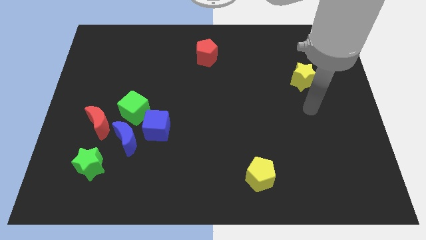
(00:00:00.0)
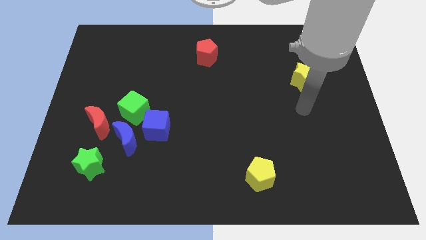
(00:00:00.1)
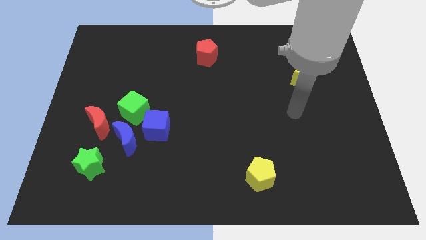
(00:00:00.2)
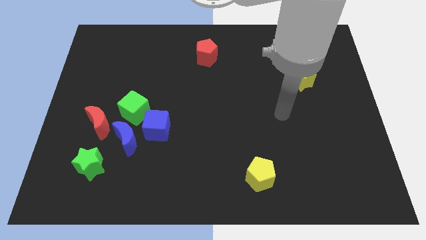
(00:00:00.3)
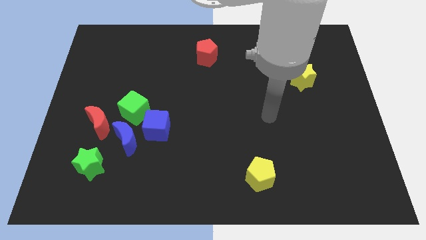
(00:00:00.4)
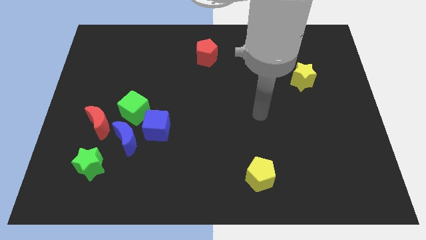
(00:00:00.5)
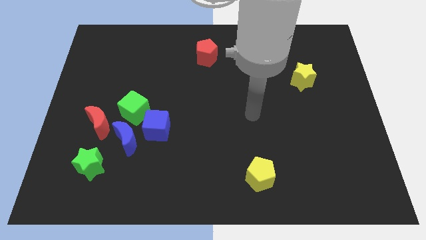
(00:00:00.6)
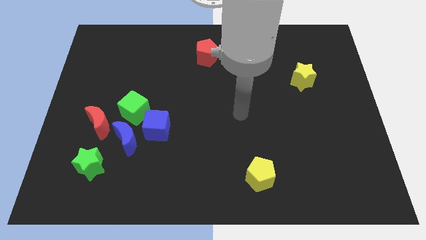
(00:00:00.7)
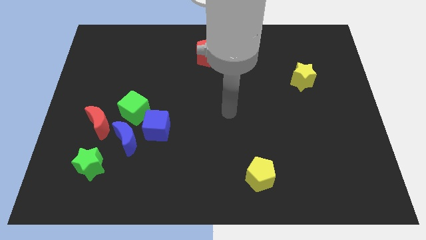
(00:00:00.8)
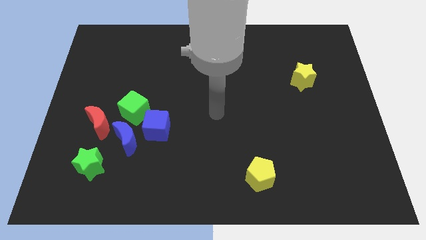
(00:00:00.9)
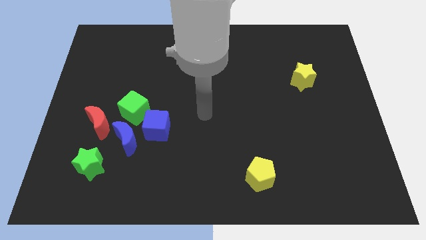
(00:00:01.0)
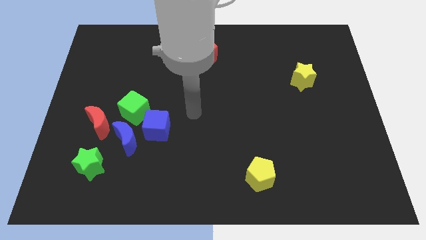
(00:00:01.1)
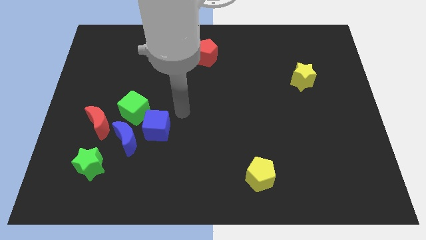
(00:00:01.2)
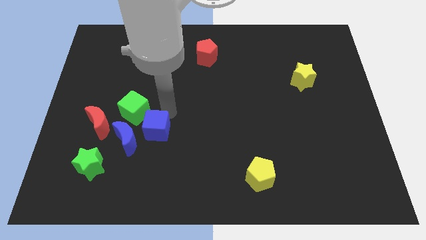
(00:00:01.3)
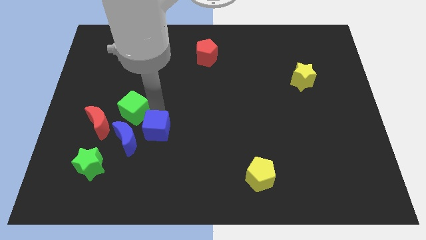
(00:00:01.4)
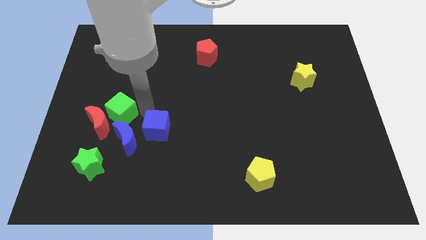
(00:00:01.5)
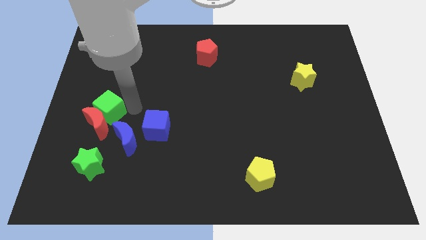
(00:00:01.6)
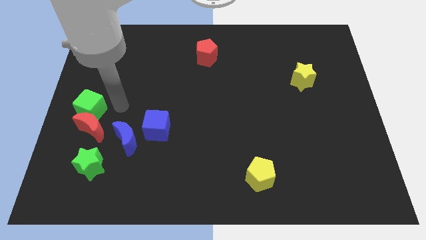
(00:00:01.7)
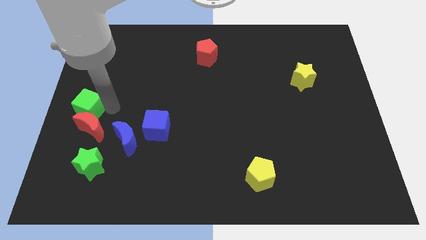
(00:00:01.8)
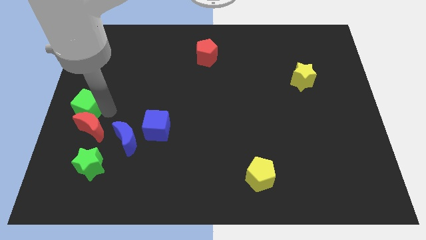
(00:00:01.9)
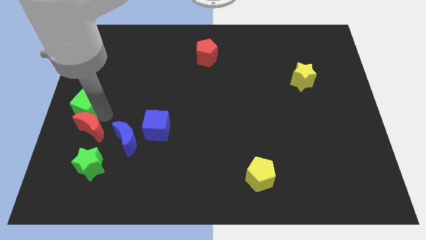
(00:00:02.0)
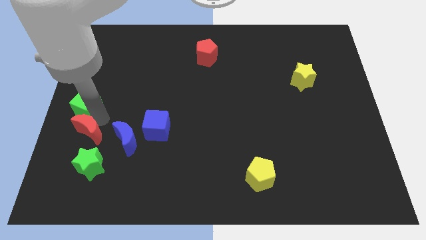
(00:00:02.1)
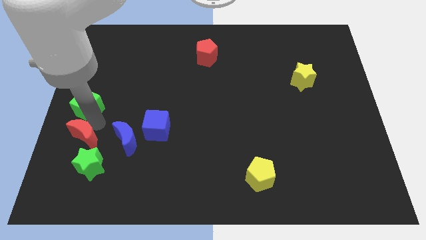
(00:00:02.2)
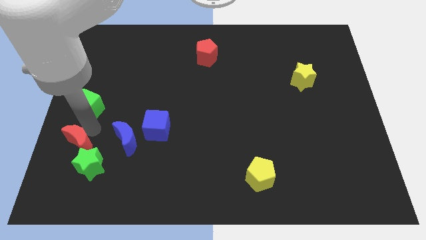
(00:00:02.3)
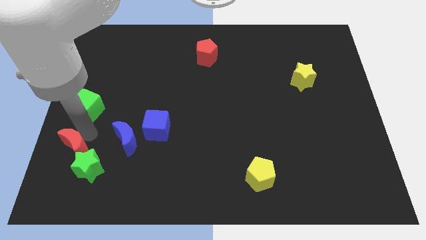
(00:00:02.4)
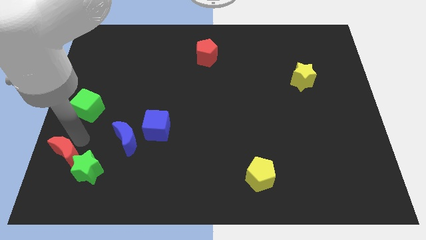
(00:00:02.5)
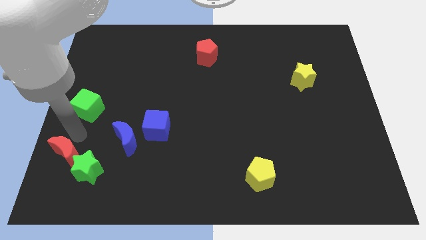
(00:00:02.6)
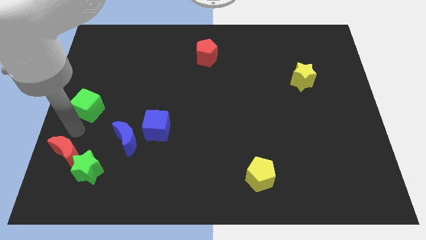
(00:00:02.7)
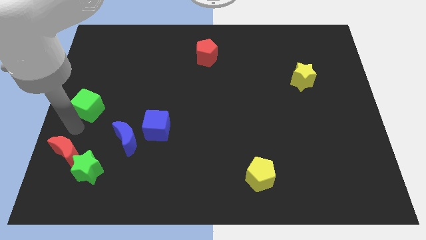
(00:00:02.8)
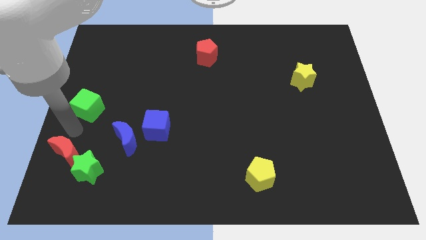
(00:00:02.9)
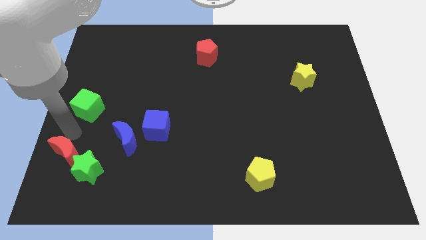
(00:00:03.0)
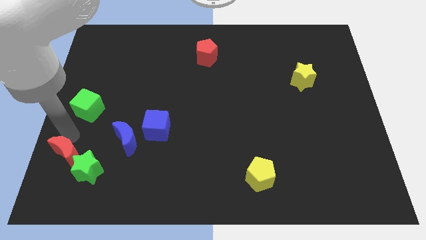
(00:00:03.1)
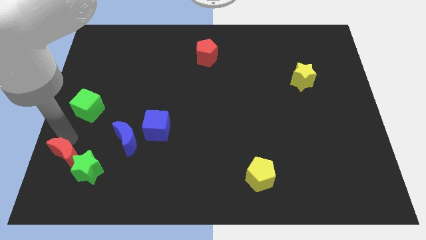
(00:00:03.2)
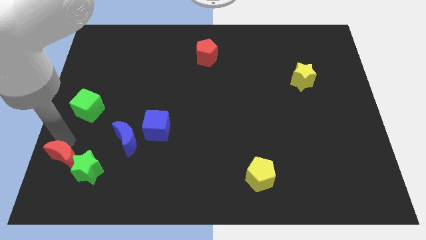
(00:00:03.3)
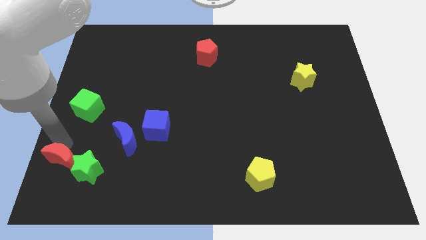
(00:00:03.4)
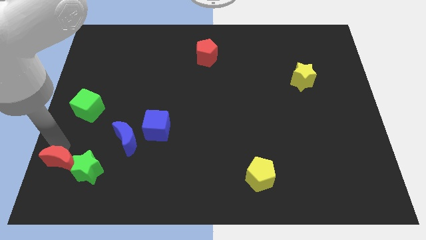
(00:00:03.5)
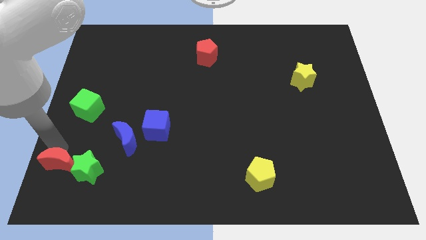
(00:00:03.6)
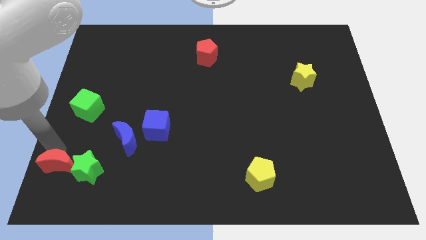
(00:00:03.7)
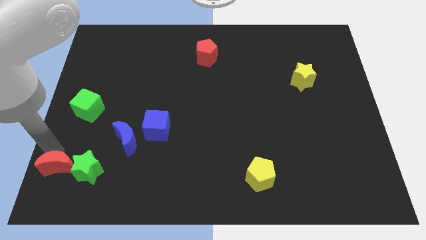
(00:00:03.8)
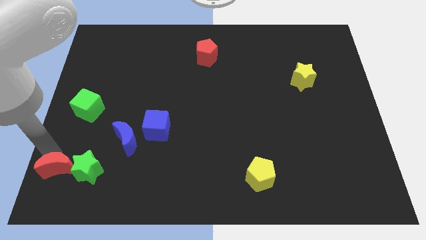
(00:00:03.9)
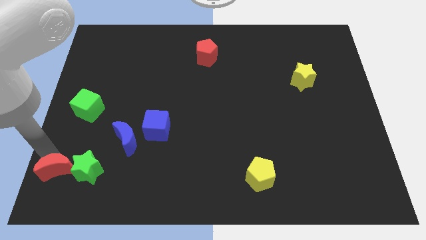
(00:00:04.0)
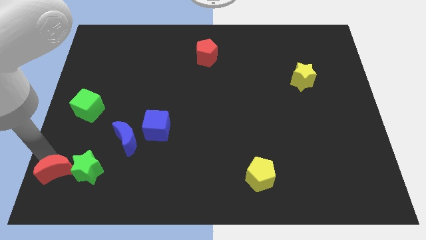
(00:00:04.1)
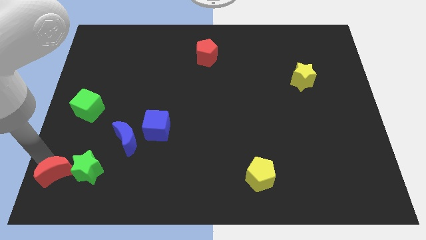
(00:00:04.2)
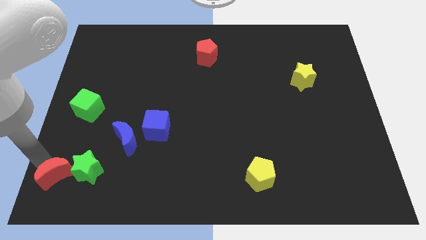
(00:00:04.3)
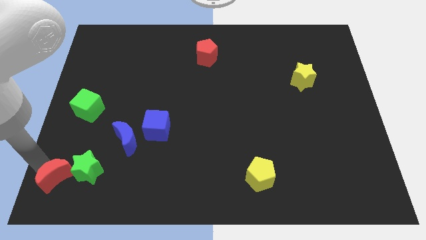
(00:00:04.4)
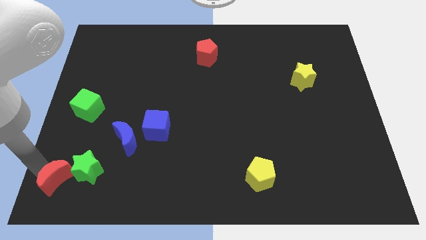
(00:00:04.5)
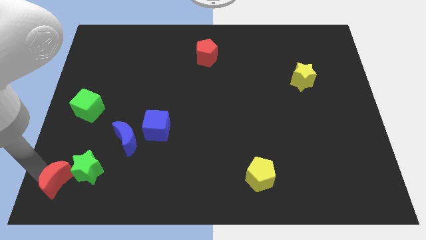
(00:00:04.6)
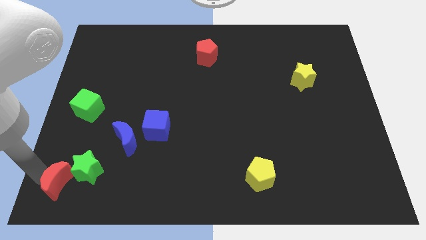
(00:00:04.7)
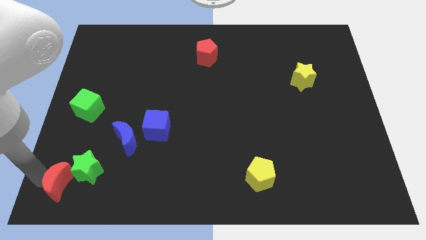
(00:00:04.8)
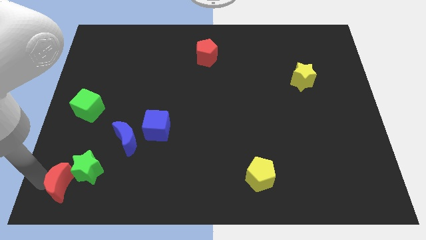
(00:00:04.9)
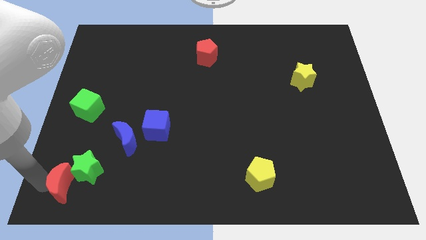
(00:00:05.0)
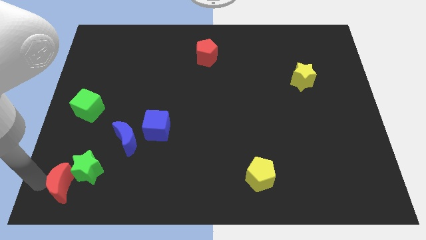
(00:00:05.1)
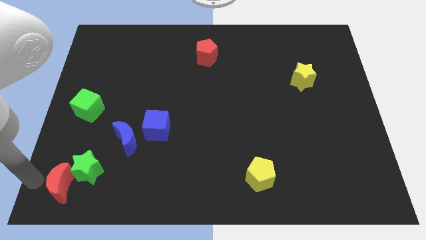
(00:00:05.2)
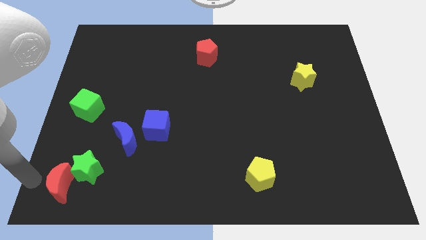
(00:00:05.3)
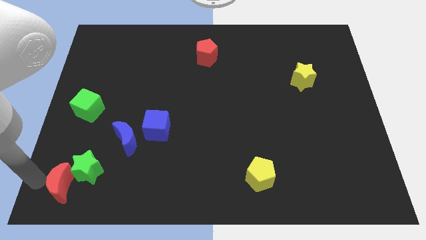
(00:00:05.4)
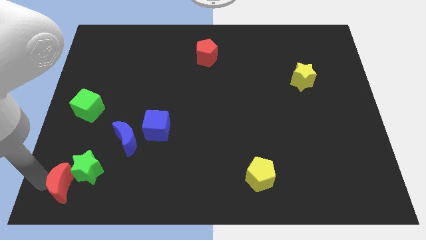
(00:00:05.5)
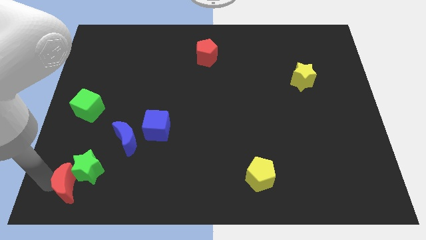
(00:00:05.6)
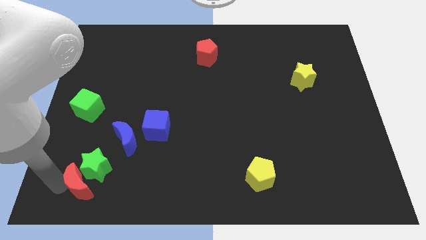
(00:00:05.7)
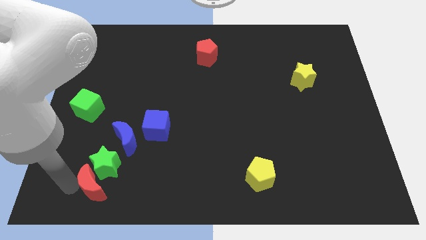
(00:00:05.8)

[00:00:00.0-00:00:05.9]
slide the red moon somewhat diagonally down and right

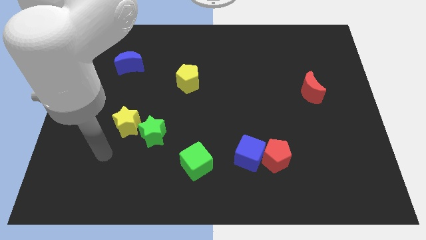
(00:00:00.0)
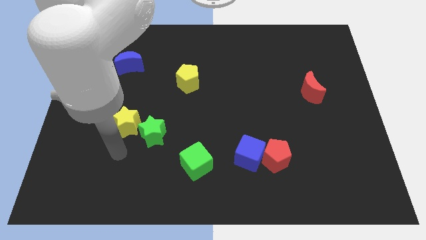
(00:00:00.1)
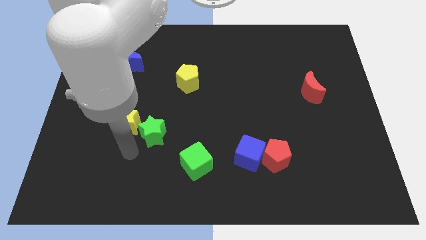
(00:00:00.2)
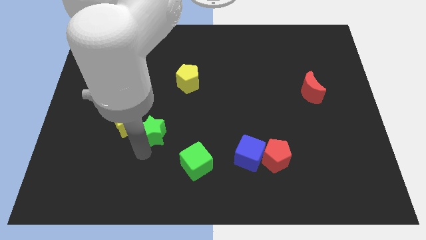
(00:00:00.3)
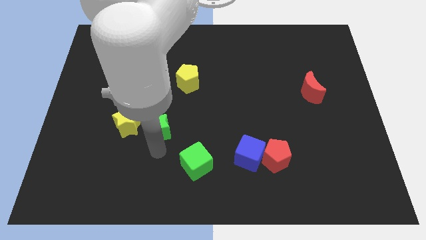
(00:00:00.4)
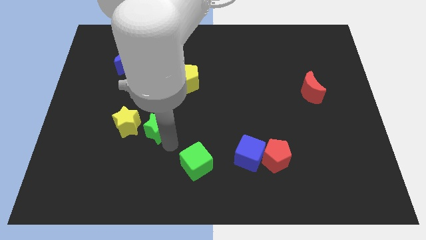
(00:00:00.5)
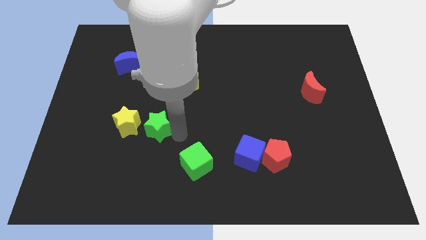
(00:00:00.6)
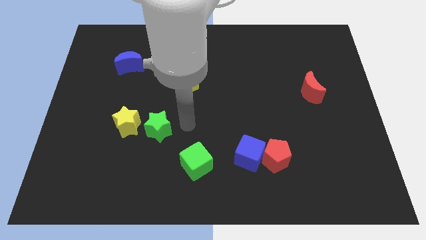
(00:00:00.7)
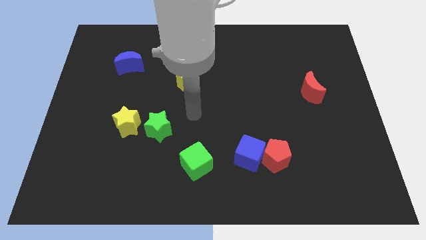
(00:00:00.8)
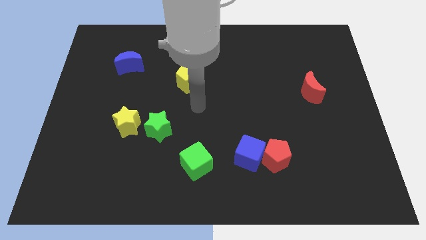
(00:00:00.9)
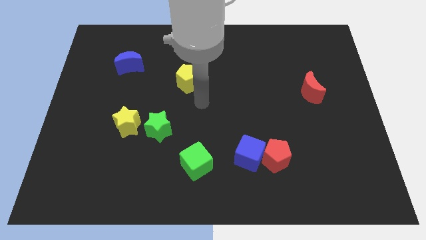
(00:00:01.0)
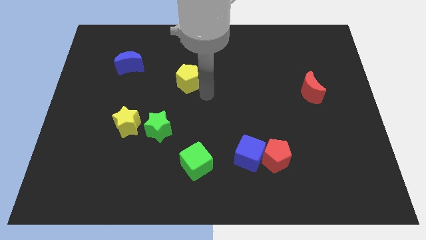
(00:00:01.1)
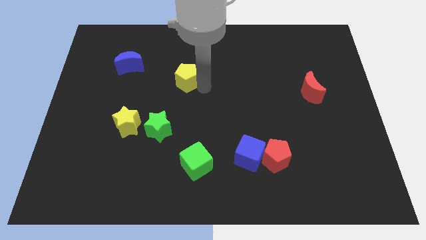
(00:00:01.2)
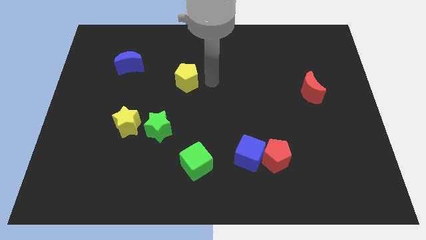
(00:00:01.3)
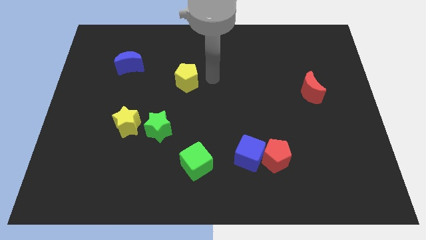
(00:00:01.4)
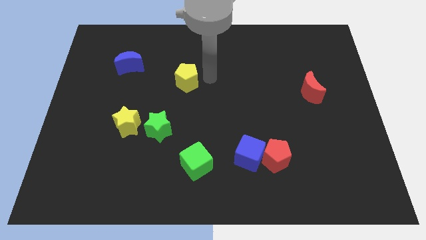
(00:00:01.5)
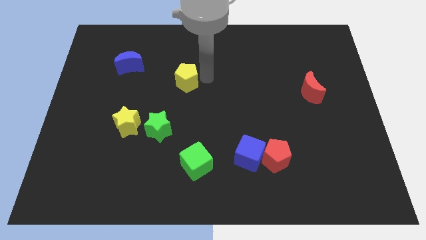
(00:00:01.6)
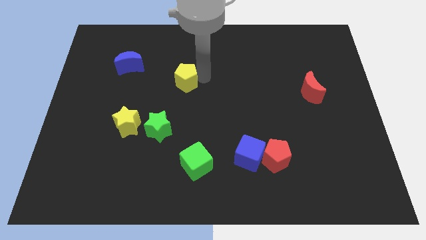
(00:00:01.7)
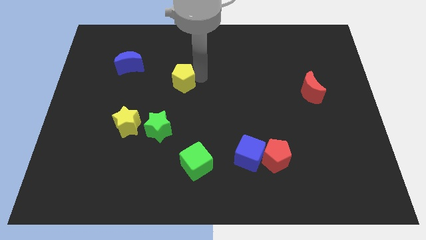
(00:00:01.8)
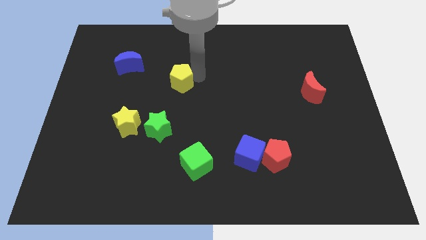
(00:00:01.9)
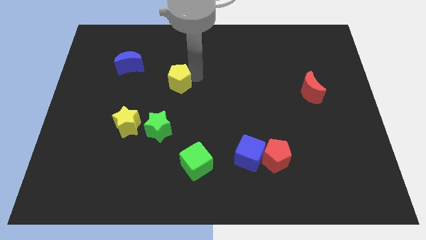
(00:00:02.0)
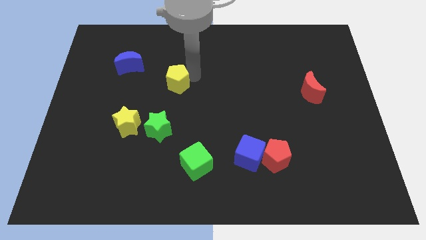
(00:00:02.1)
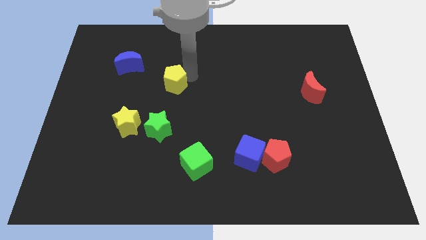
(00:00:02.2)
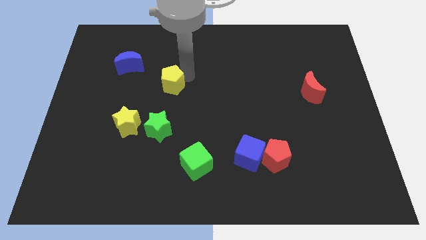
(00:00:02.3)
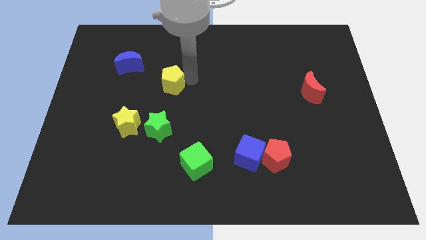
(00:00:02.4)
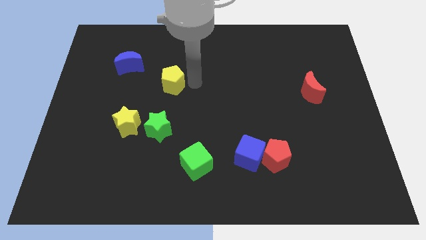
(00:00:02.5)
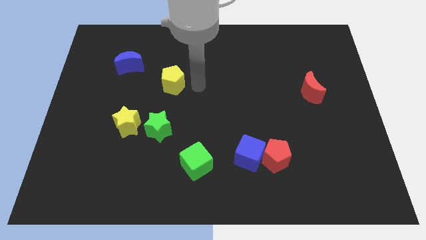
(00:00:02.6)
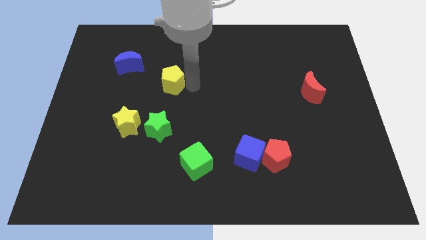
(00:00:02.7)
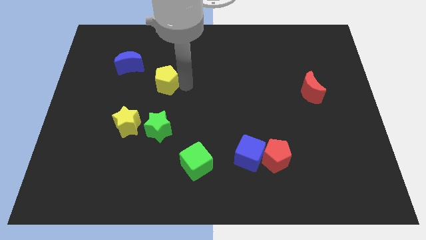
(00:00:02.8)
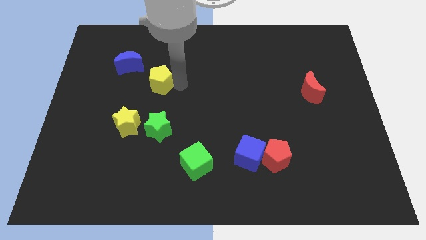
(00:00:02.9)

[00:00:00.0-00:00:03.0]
slightly push the yellow pentagon to the left
